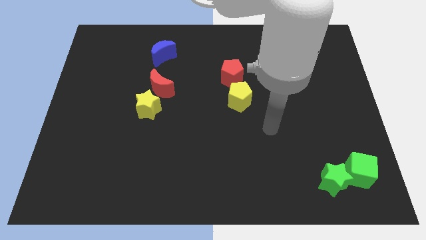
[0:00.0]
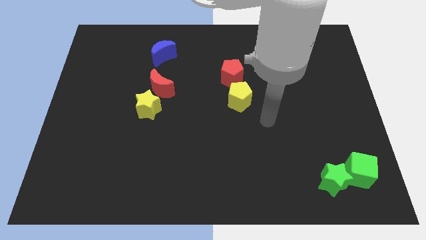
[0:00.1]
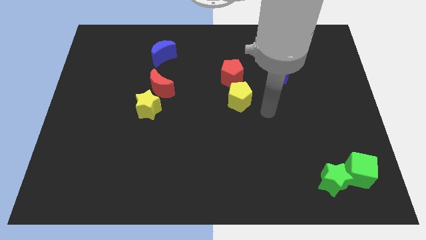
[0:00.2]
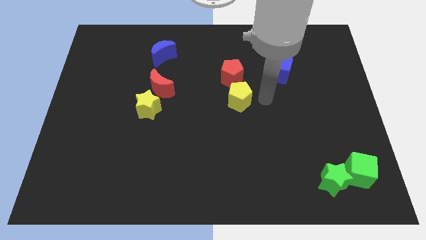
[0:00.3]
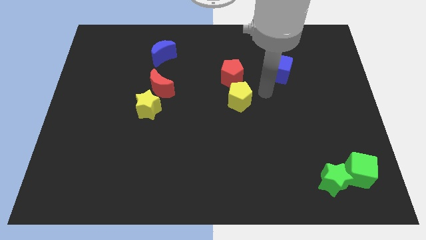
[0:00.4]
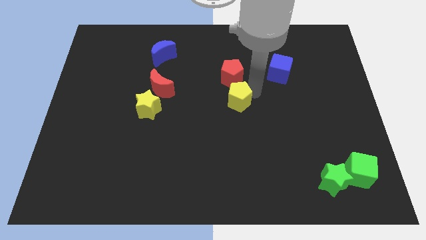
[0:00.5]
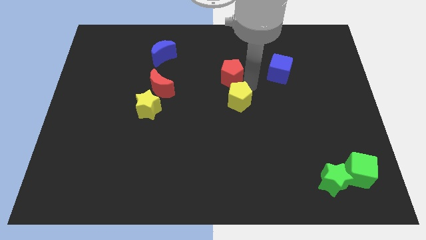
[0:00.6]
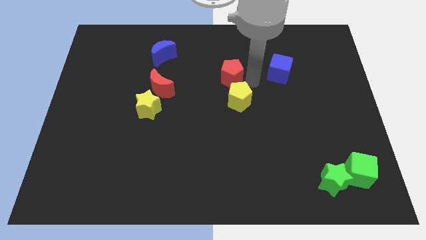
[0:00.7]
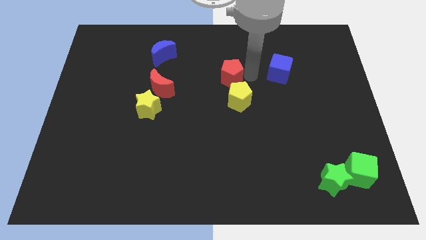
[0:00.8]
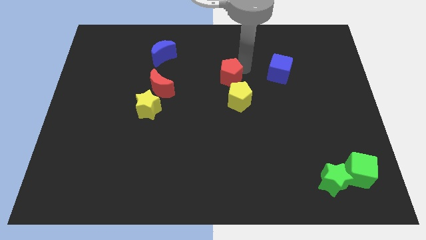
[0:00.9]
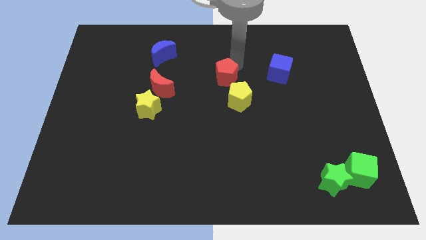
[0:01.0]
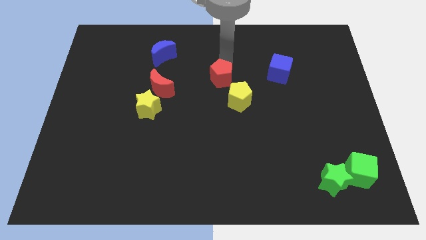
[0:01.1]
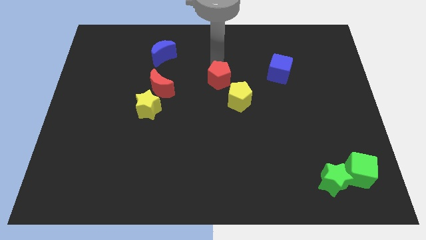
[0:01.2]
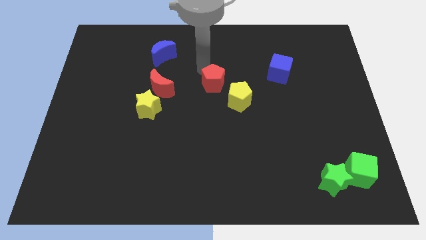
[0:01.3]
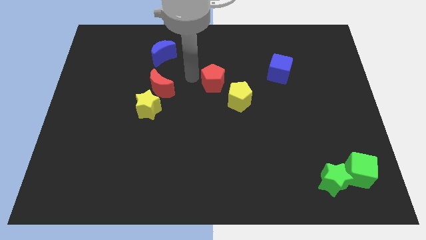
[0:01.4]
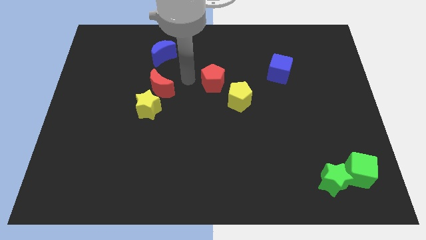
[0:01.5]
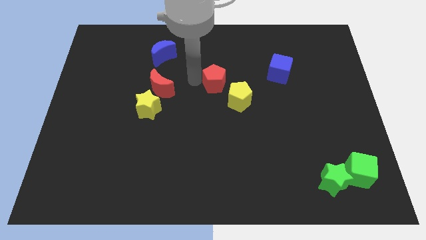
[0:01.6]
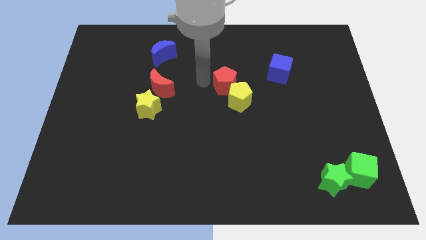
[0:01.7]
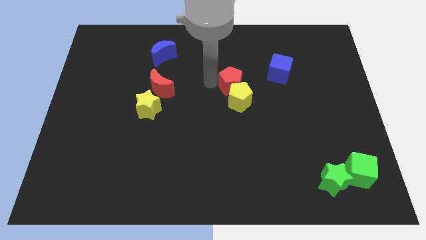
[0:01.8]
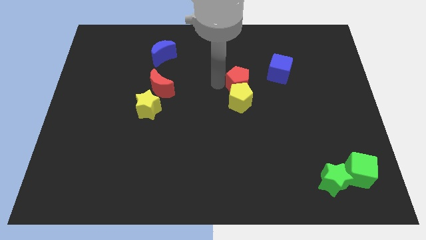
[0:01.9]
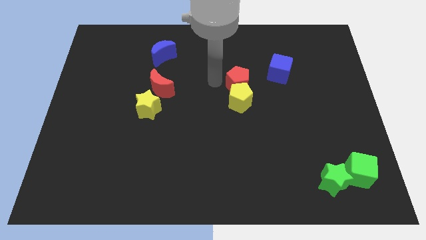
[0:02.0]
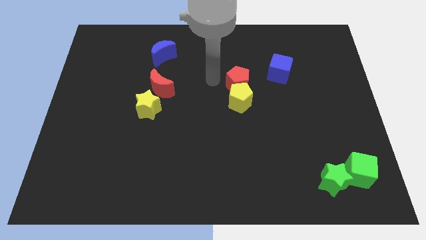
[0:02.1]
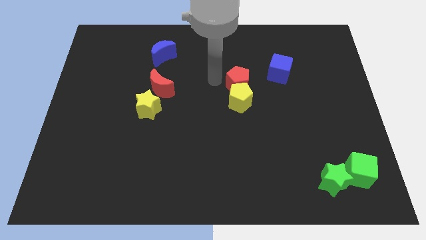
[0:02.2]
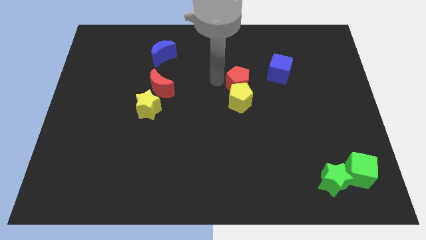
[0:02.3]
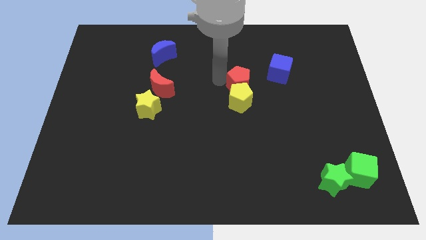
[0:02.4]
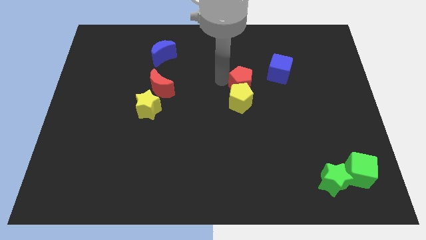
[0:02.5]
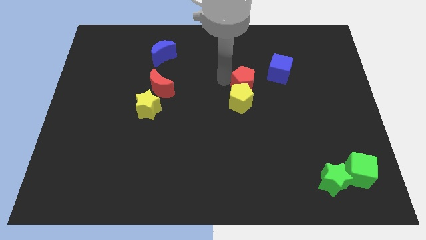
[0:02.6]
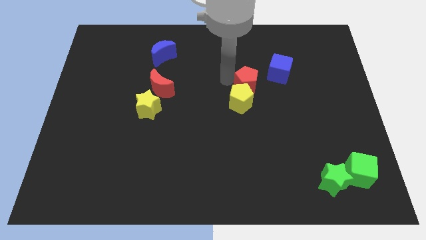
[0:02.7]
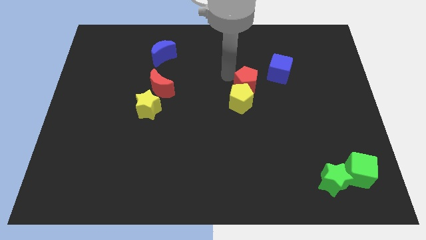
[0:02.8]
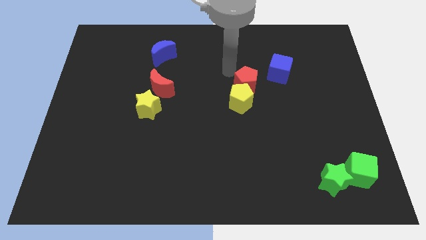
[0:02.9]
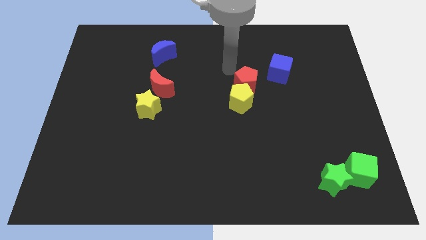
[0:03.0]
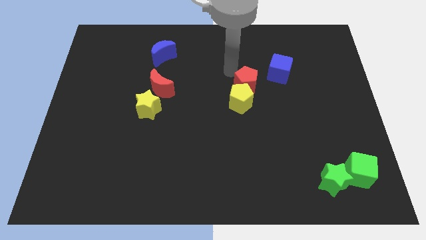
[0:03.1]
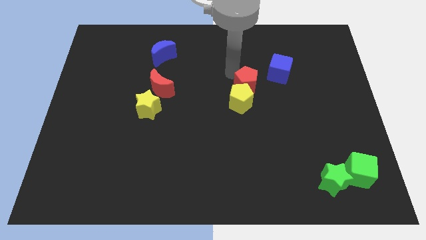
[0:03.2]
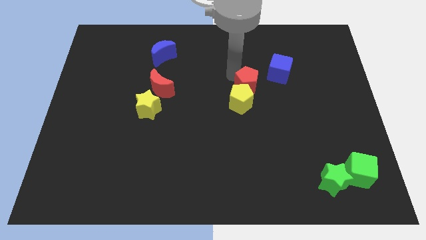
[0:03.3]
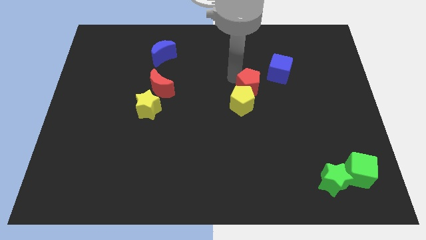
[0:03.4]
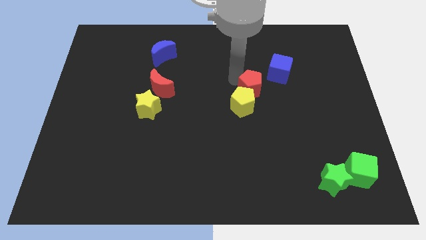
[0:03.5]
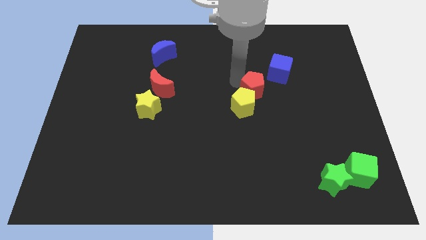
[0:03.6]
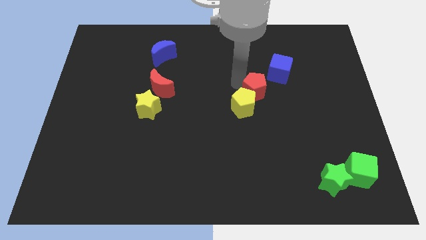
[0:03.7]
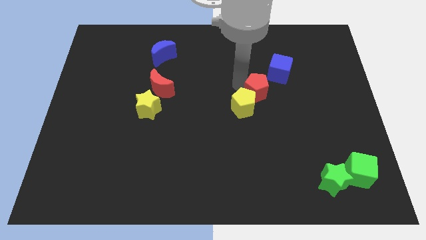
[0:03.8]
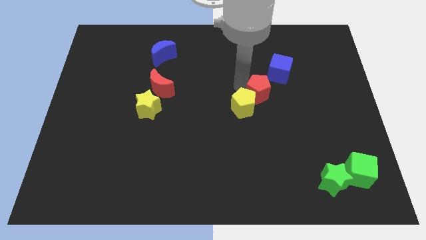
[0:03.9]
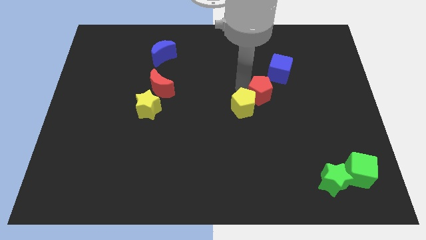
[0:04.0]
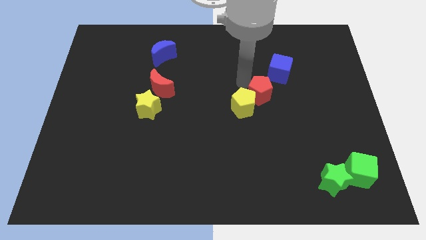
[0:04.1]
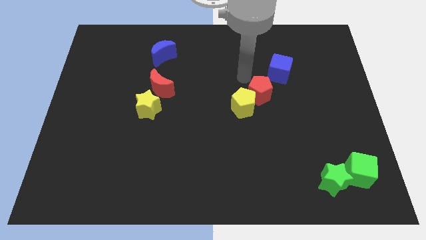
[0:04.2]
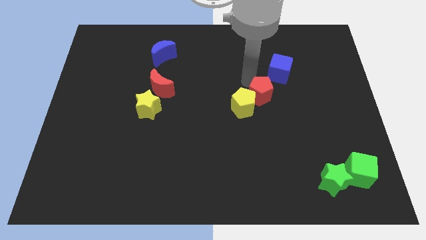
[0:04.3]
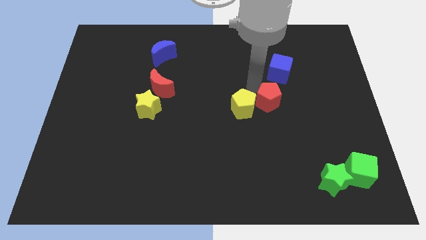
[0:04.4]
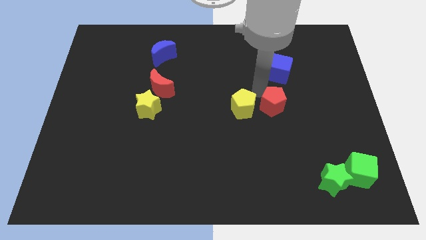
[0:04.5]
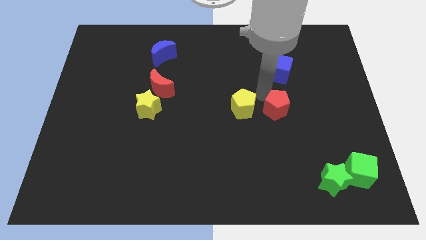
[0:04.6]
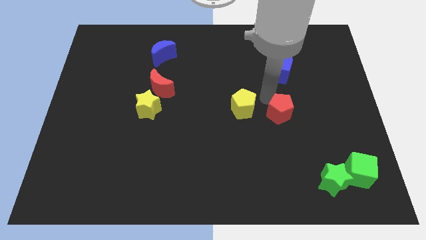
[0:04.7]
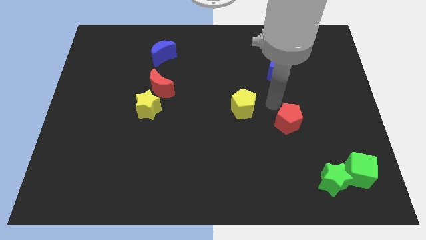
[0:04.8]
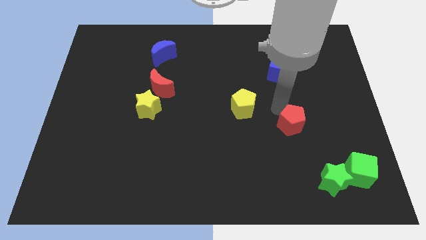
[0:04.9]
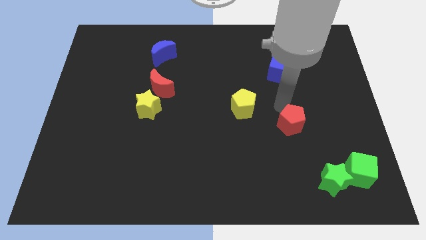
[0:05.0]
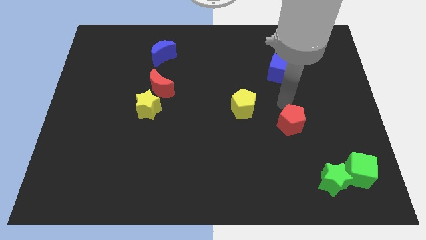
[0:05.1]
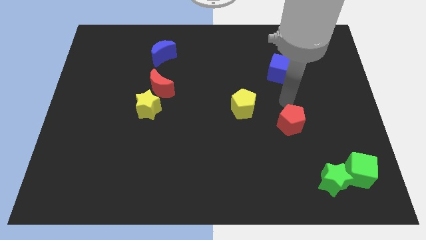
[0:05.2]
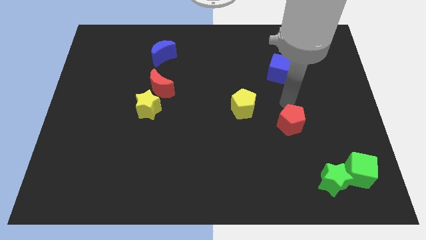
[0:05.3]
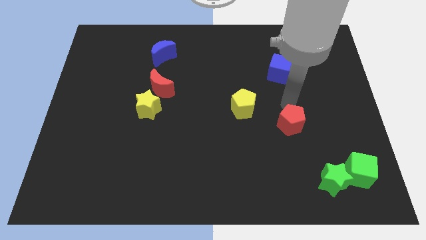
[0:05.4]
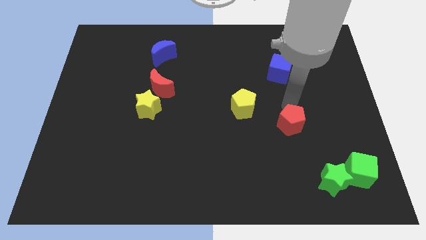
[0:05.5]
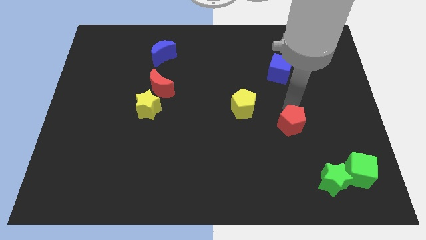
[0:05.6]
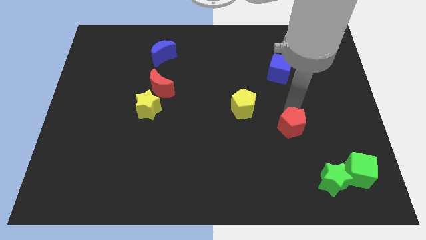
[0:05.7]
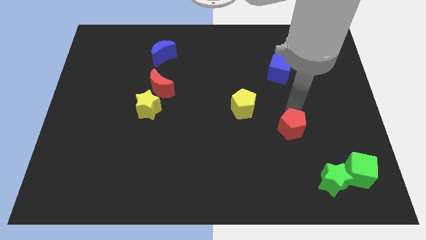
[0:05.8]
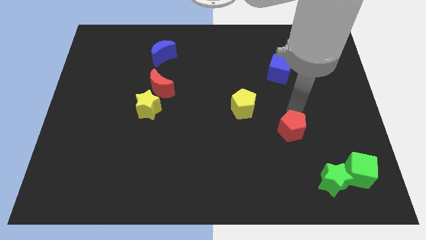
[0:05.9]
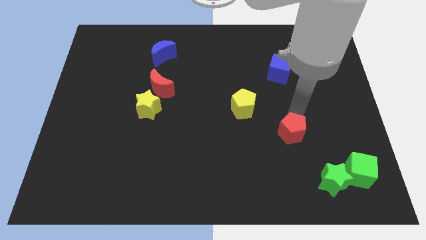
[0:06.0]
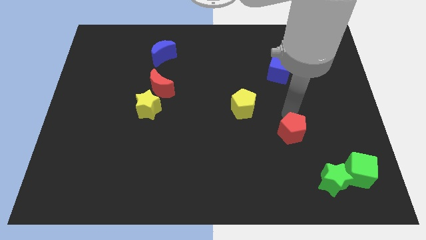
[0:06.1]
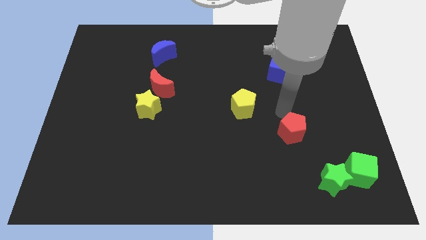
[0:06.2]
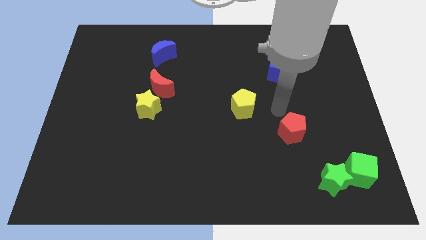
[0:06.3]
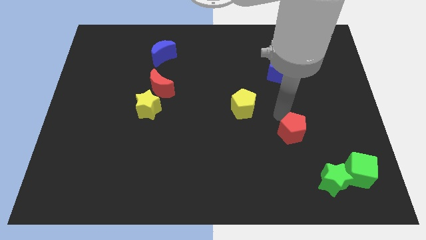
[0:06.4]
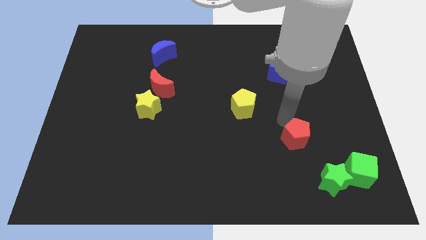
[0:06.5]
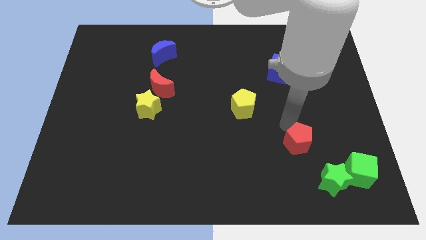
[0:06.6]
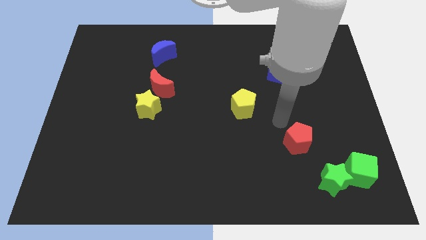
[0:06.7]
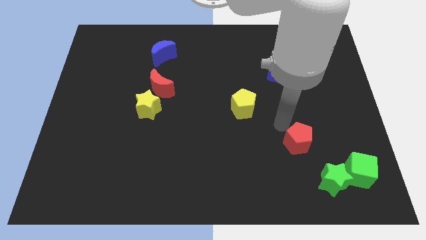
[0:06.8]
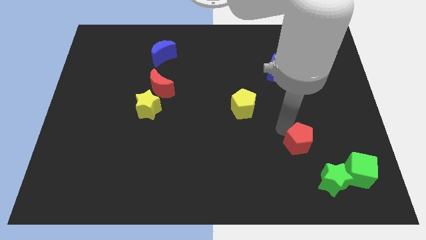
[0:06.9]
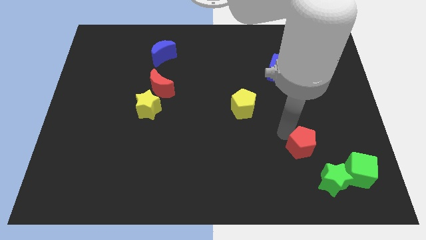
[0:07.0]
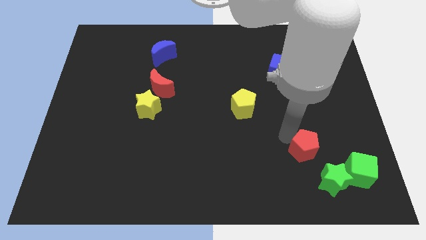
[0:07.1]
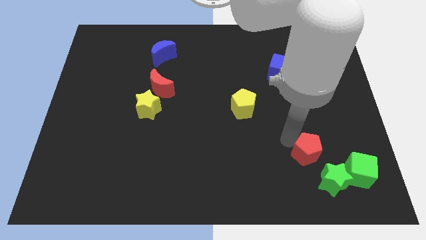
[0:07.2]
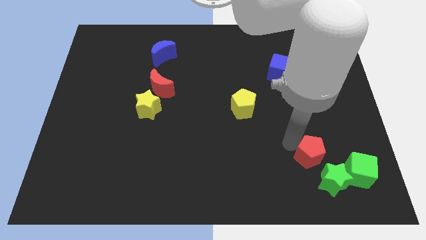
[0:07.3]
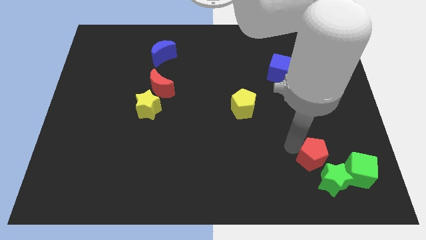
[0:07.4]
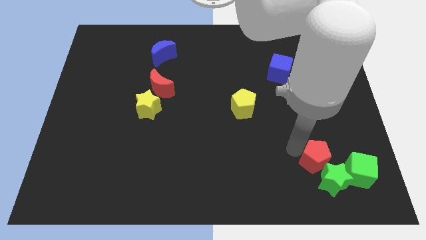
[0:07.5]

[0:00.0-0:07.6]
push the red pentagon close to the green star
